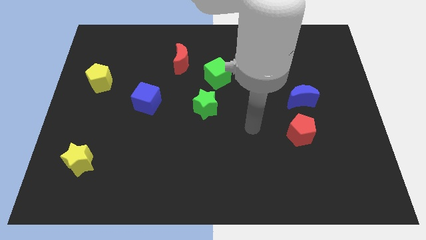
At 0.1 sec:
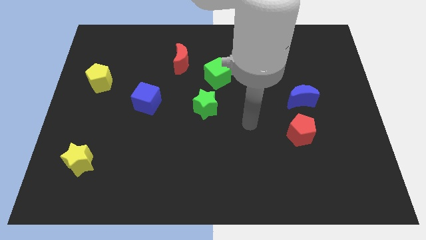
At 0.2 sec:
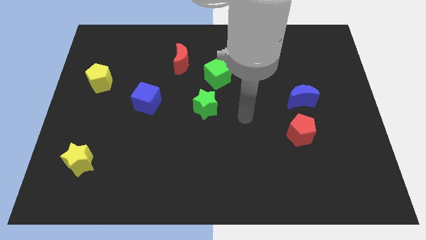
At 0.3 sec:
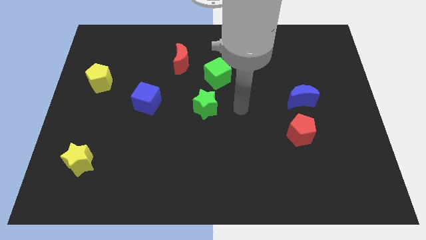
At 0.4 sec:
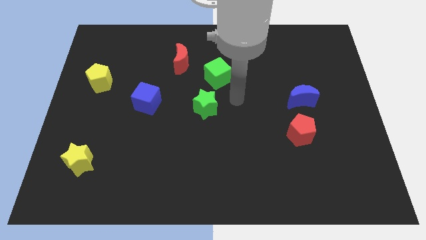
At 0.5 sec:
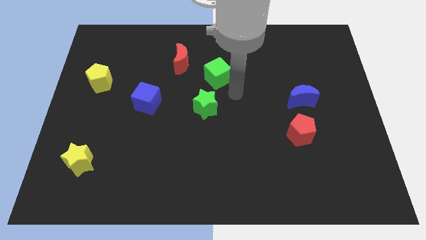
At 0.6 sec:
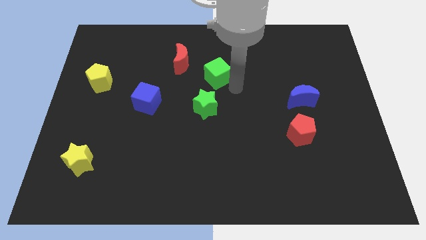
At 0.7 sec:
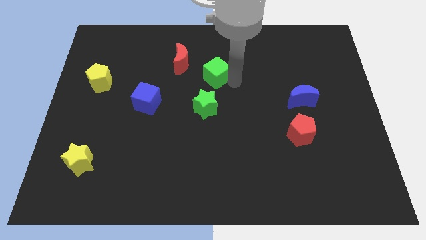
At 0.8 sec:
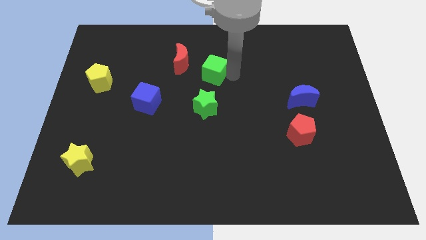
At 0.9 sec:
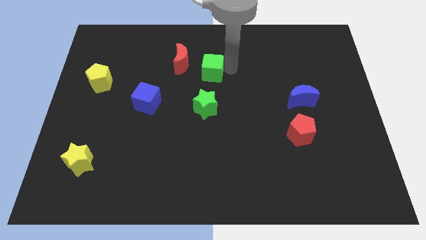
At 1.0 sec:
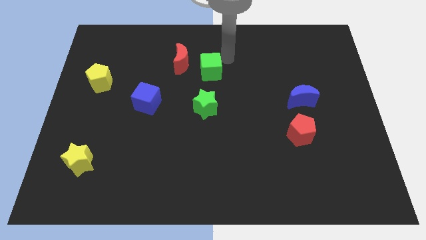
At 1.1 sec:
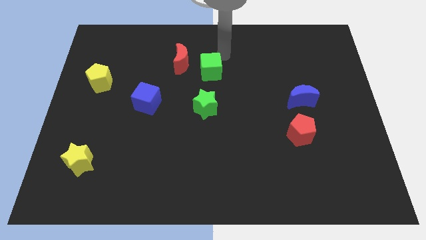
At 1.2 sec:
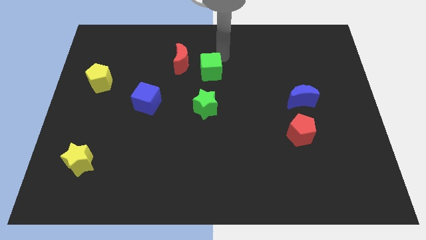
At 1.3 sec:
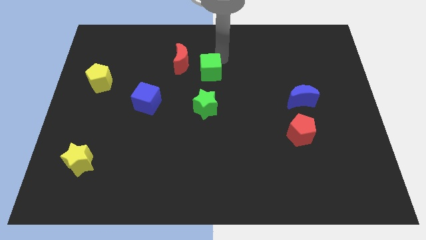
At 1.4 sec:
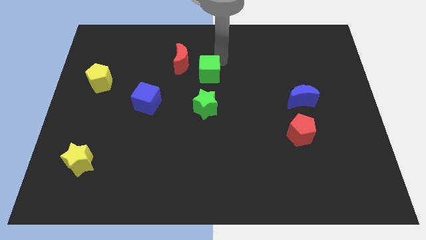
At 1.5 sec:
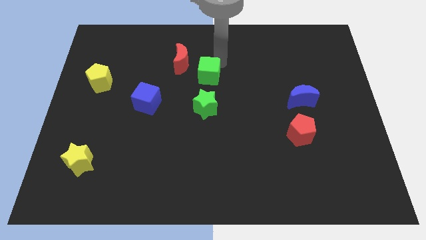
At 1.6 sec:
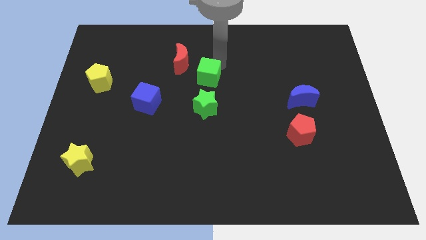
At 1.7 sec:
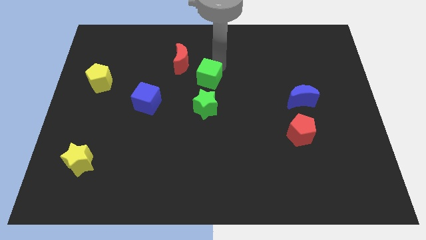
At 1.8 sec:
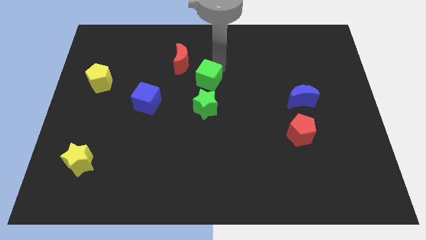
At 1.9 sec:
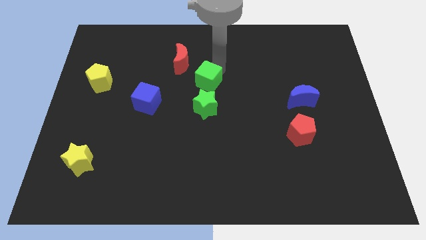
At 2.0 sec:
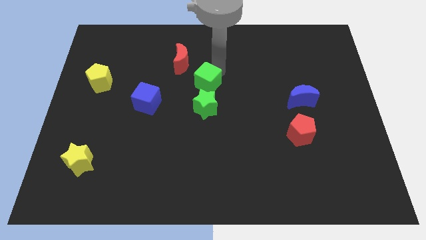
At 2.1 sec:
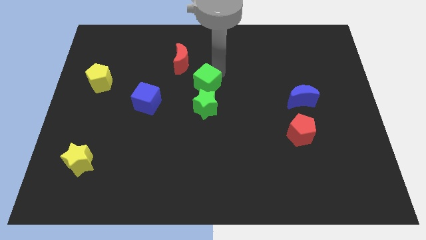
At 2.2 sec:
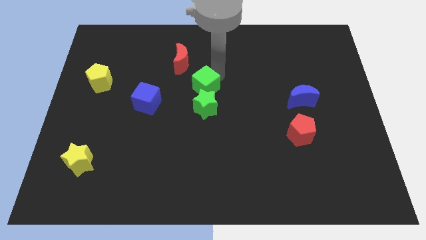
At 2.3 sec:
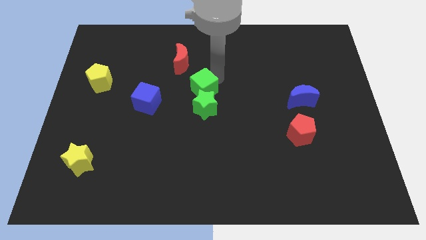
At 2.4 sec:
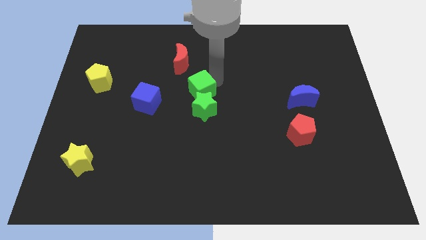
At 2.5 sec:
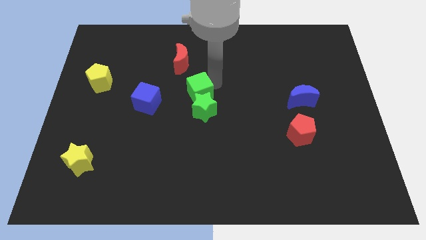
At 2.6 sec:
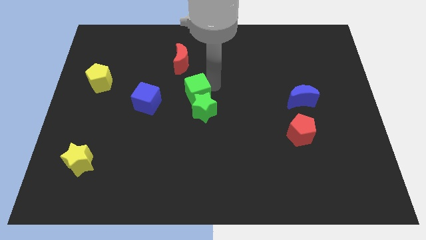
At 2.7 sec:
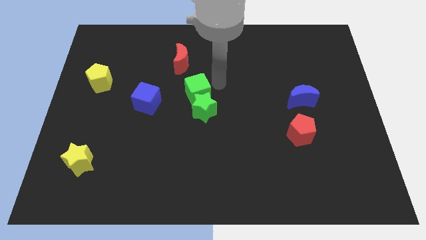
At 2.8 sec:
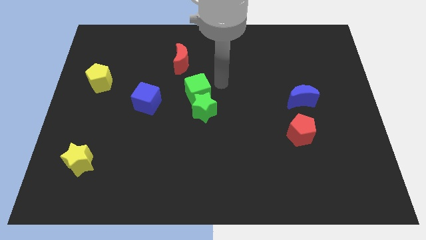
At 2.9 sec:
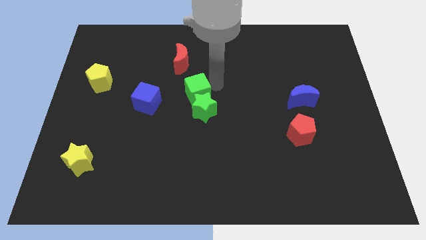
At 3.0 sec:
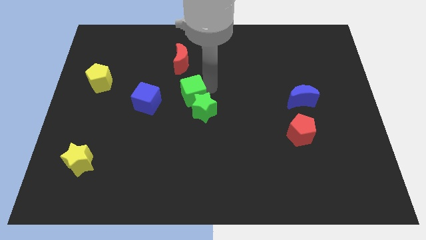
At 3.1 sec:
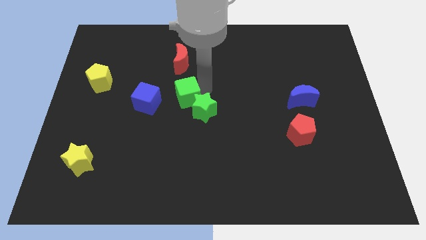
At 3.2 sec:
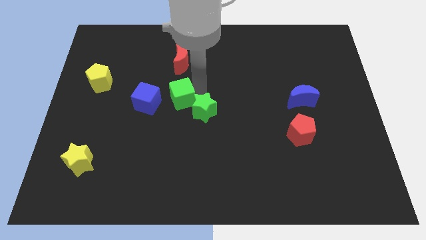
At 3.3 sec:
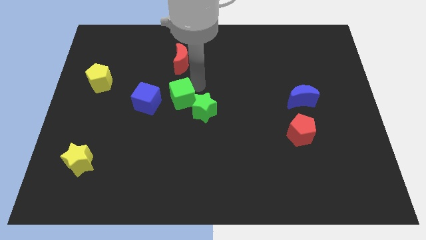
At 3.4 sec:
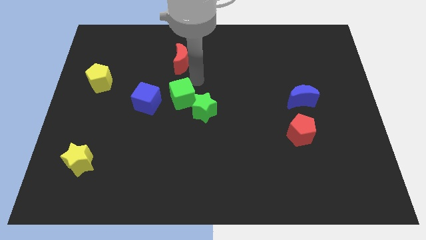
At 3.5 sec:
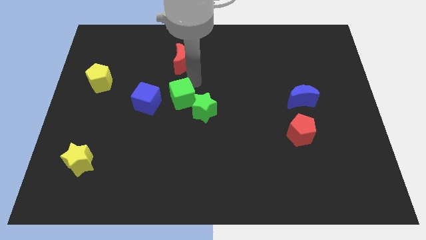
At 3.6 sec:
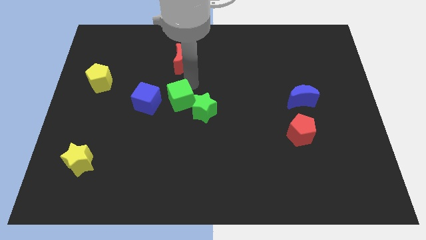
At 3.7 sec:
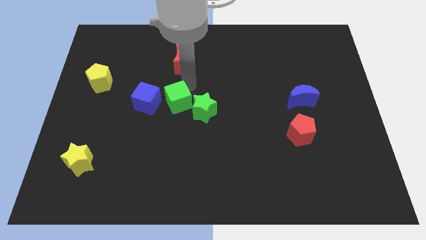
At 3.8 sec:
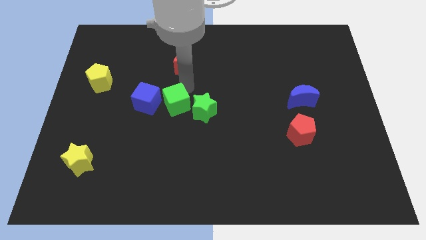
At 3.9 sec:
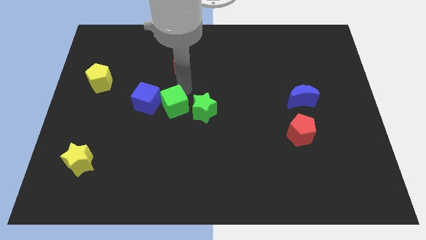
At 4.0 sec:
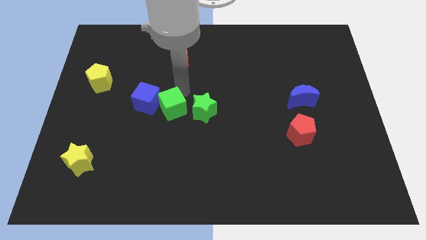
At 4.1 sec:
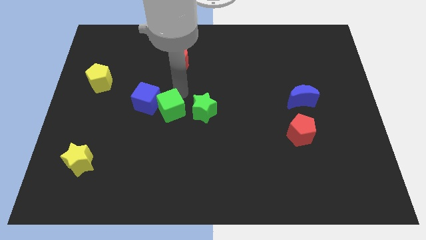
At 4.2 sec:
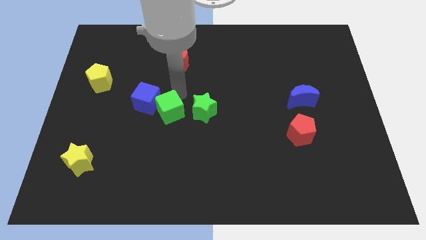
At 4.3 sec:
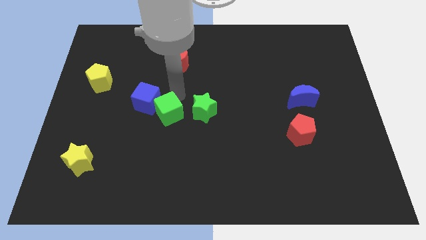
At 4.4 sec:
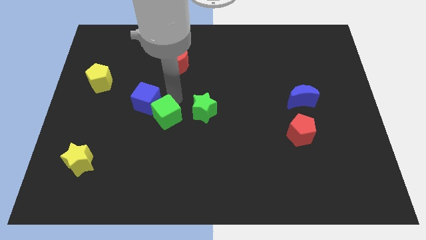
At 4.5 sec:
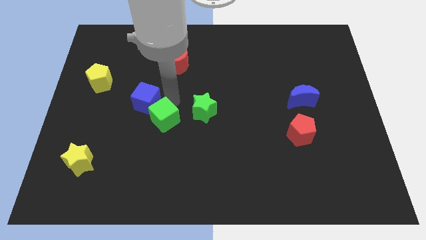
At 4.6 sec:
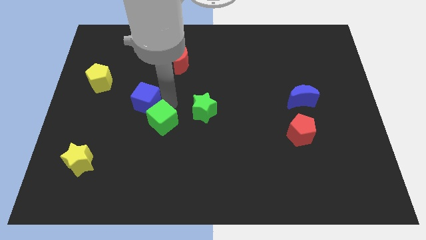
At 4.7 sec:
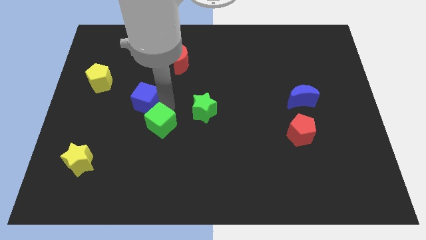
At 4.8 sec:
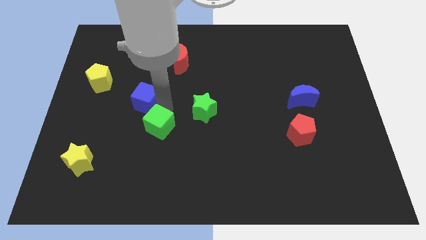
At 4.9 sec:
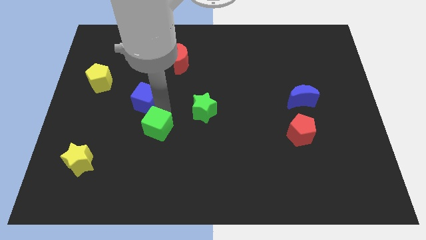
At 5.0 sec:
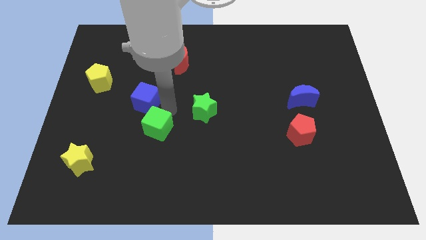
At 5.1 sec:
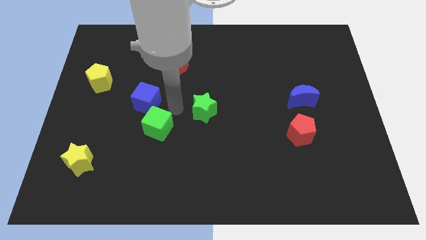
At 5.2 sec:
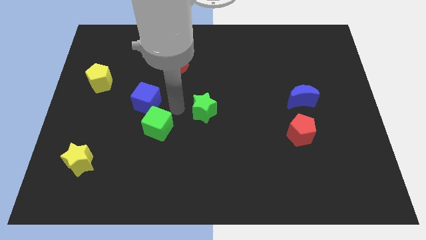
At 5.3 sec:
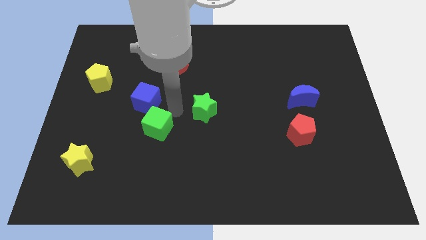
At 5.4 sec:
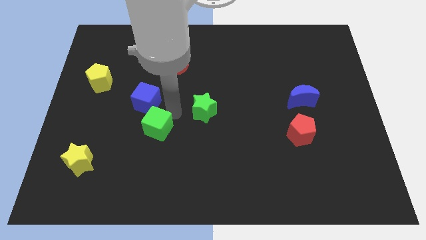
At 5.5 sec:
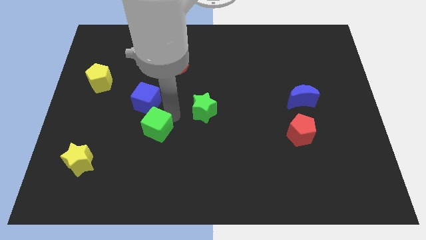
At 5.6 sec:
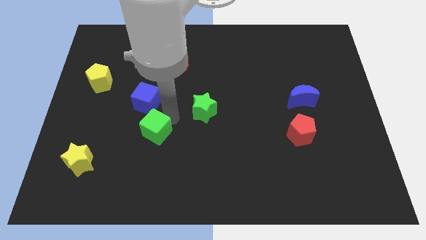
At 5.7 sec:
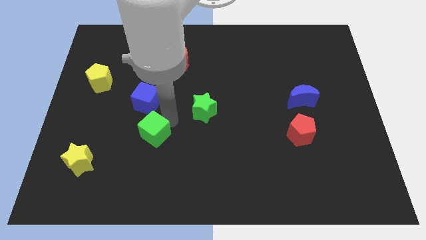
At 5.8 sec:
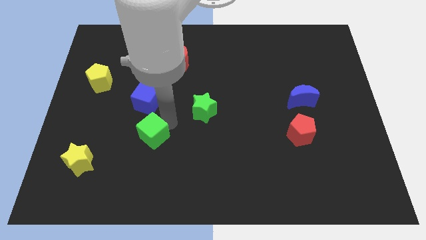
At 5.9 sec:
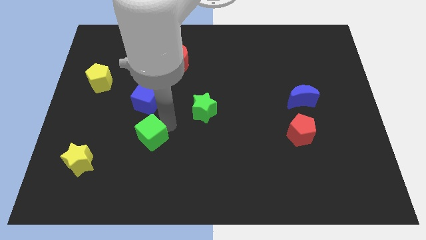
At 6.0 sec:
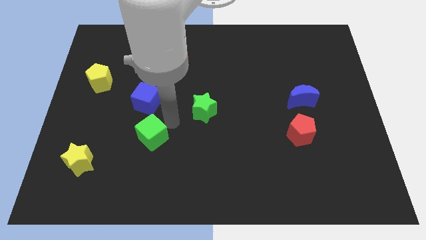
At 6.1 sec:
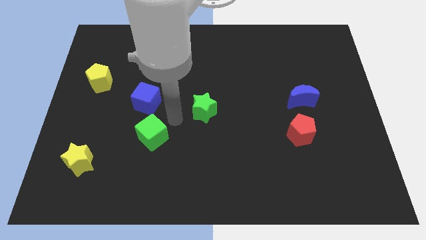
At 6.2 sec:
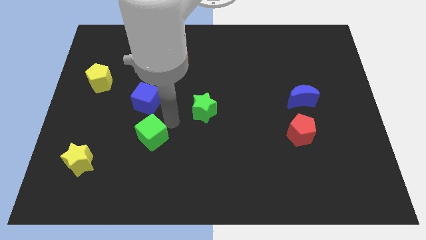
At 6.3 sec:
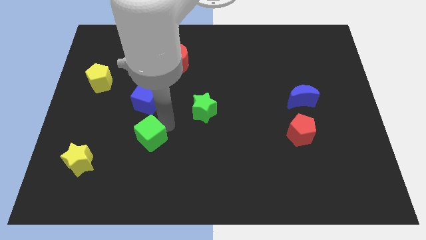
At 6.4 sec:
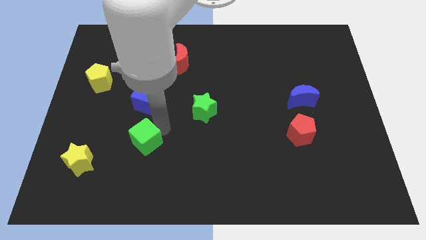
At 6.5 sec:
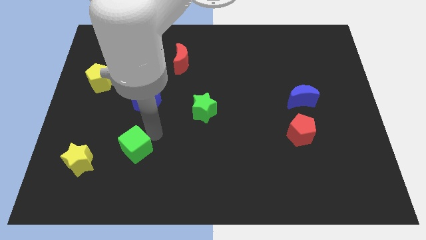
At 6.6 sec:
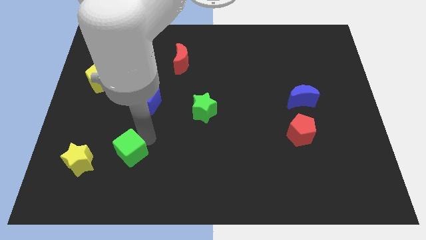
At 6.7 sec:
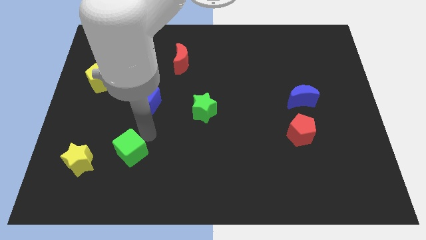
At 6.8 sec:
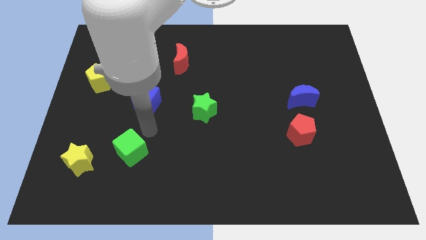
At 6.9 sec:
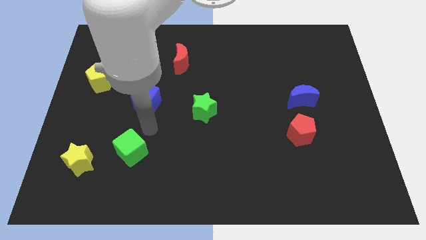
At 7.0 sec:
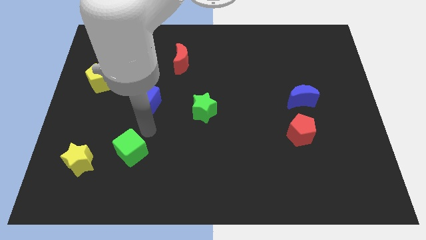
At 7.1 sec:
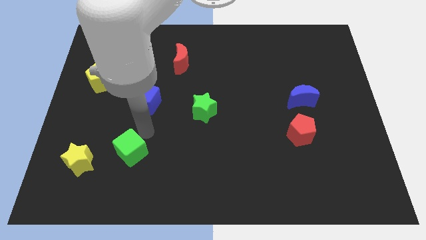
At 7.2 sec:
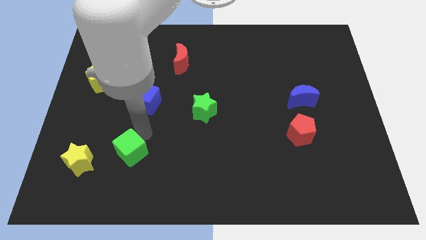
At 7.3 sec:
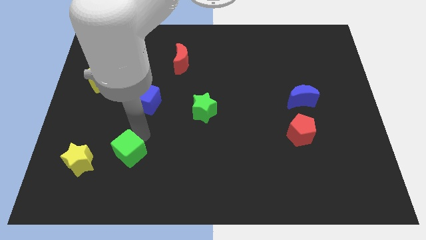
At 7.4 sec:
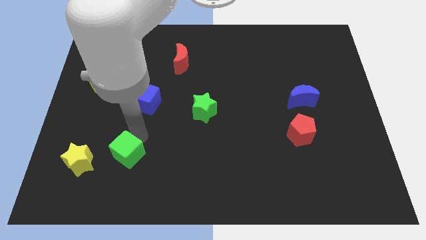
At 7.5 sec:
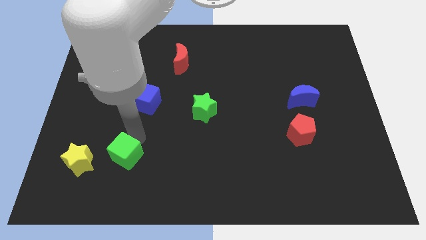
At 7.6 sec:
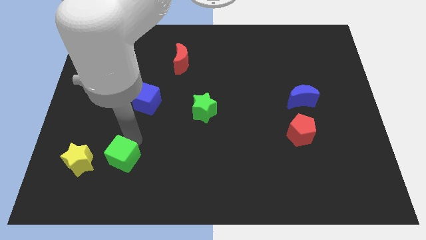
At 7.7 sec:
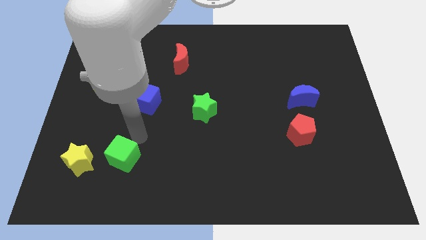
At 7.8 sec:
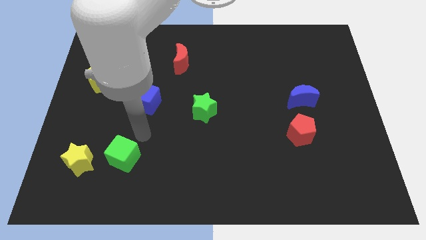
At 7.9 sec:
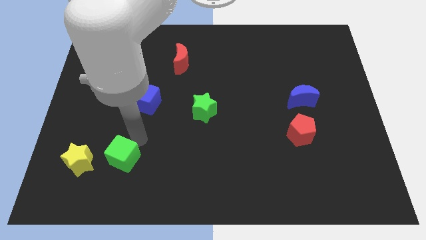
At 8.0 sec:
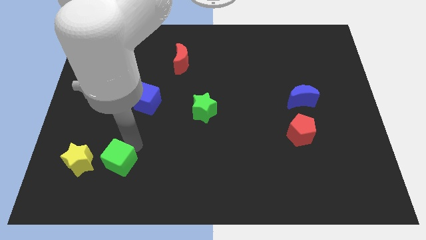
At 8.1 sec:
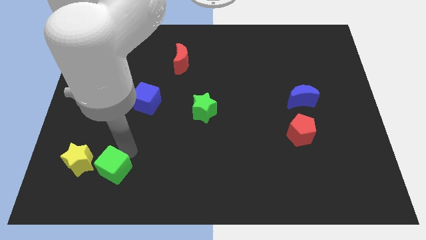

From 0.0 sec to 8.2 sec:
move the green cube to the bottom right of the yellow star
